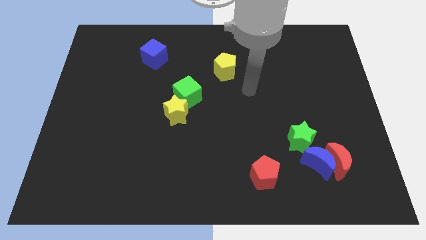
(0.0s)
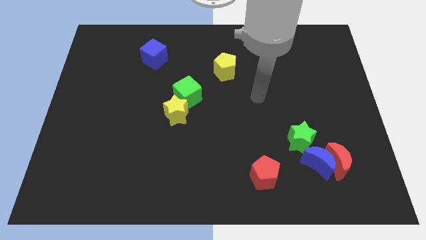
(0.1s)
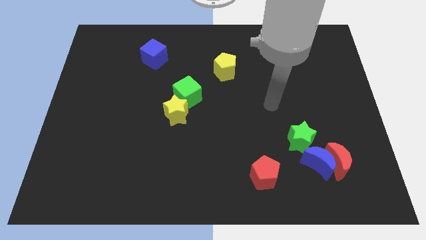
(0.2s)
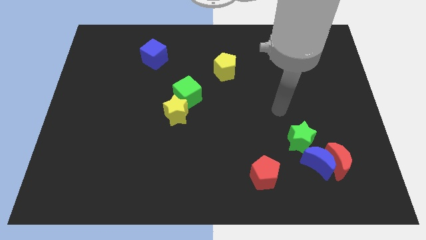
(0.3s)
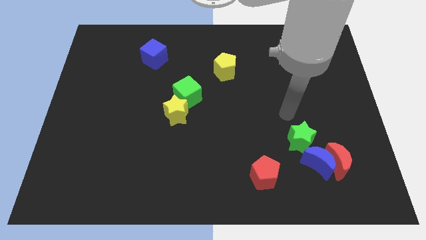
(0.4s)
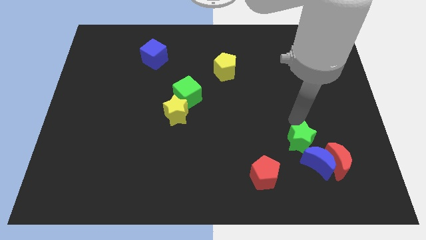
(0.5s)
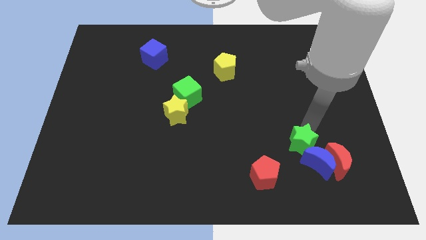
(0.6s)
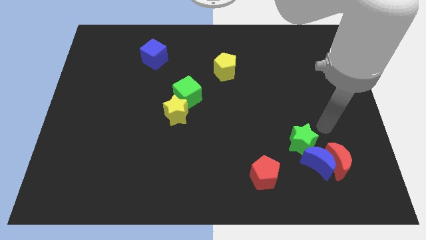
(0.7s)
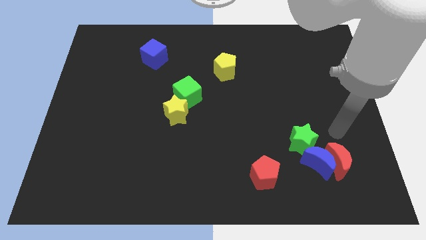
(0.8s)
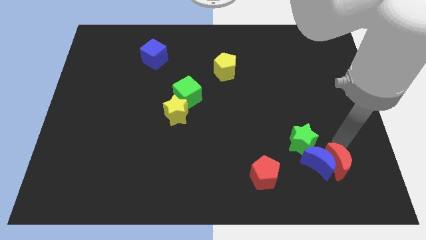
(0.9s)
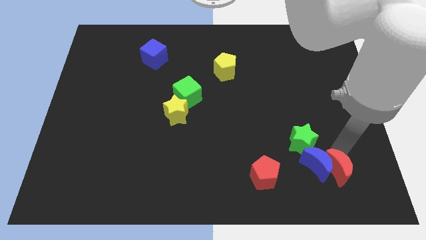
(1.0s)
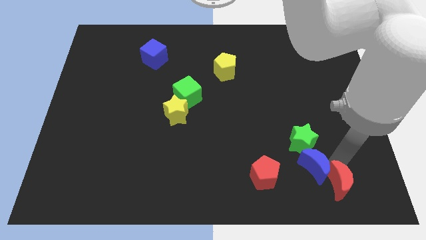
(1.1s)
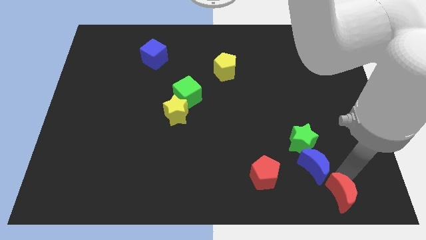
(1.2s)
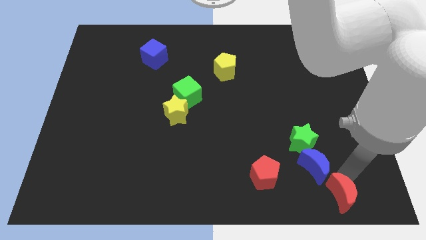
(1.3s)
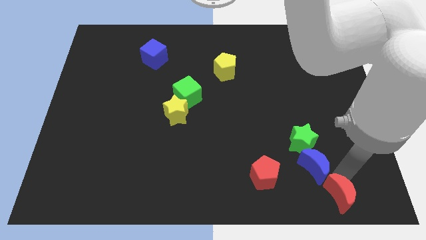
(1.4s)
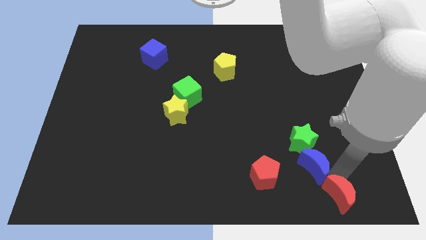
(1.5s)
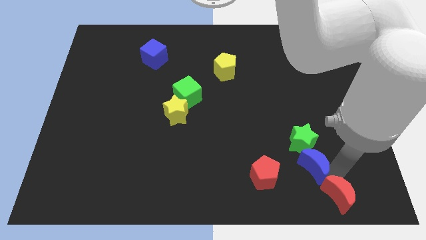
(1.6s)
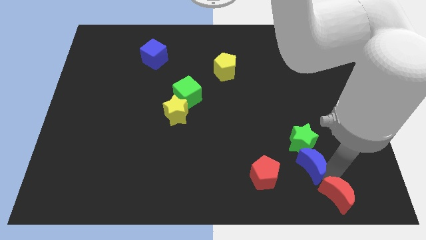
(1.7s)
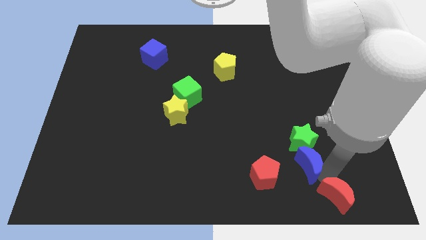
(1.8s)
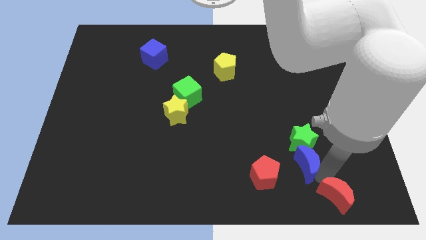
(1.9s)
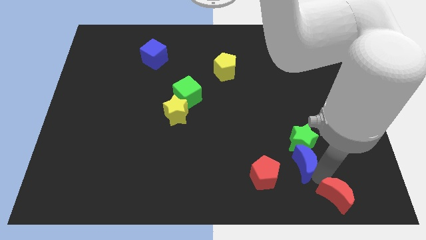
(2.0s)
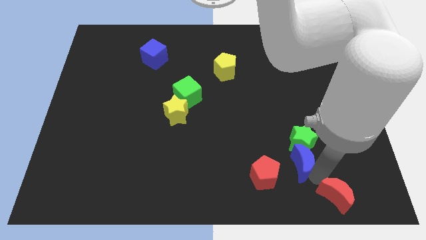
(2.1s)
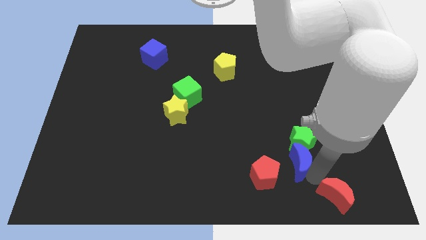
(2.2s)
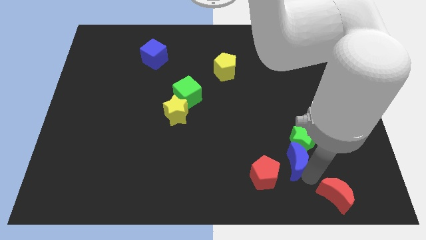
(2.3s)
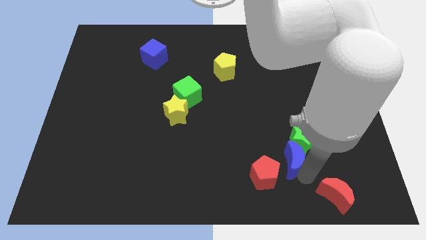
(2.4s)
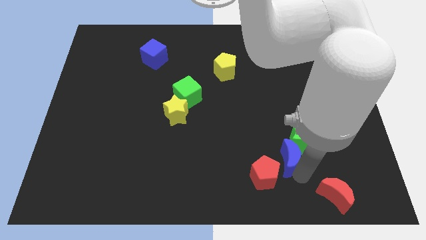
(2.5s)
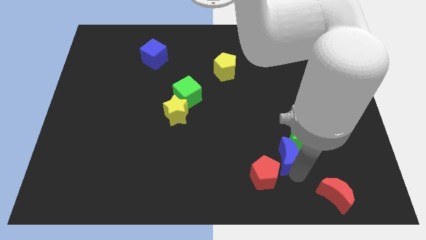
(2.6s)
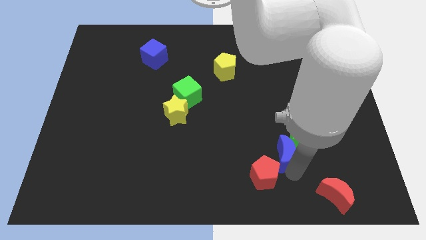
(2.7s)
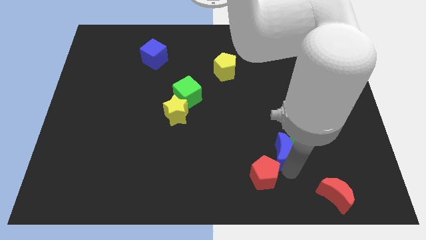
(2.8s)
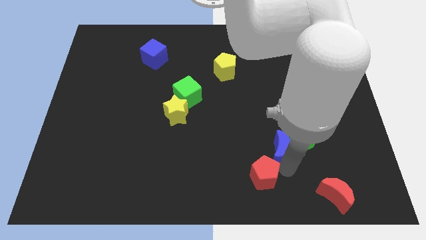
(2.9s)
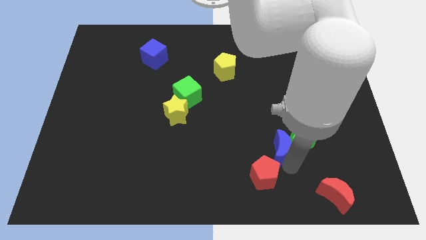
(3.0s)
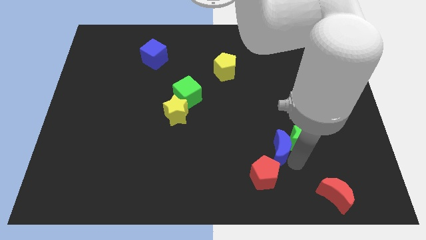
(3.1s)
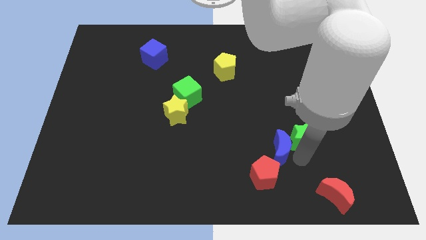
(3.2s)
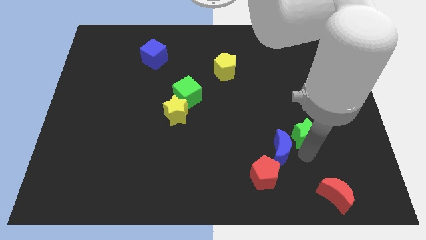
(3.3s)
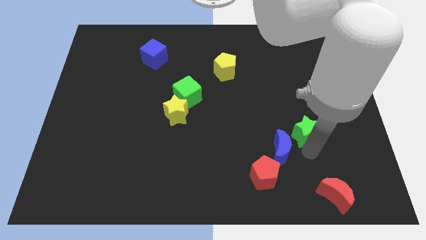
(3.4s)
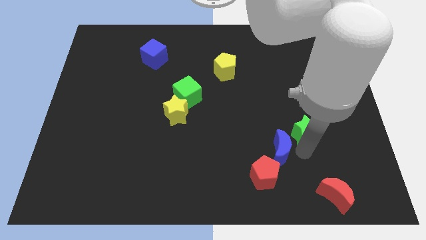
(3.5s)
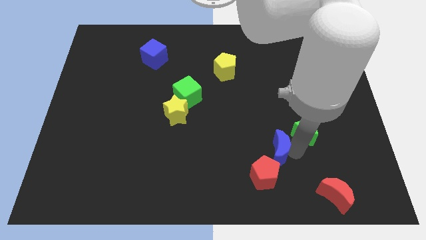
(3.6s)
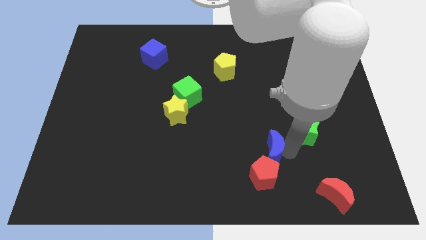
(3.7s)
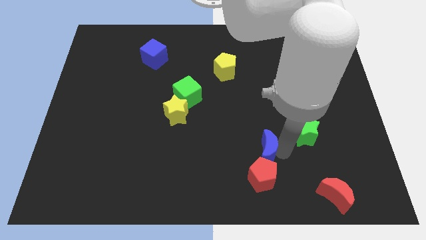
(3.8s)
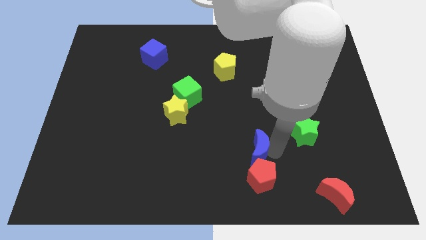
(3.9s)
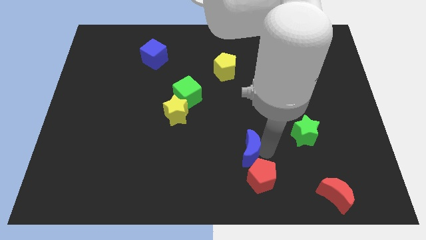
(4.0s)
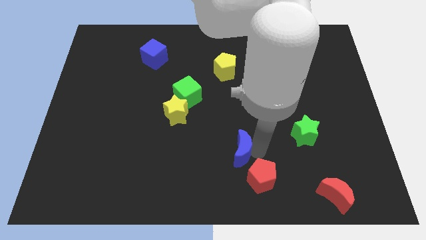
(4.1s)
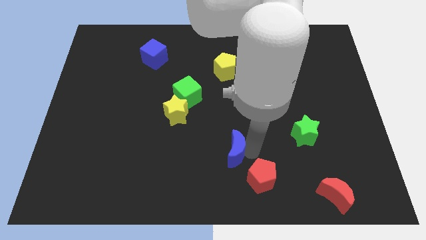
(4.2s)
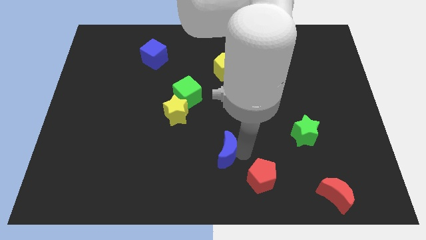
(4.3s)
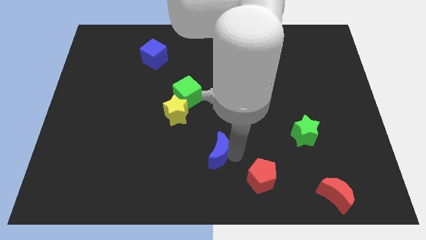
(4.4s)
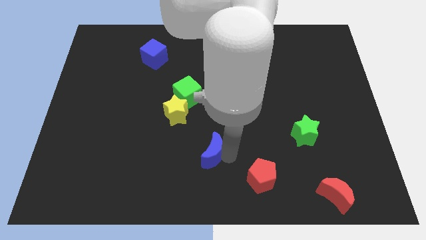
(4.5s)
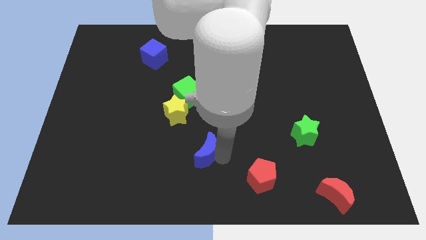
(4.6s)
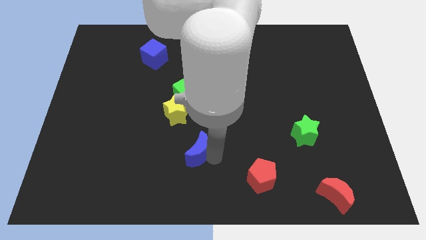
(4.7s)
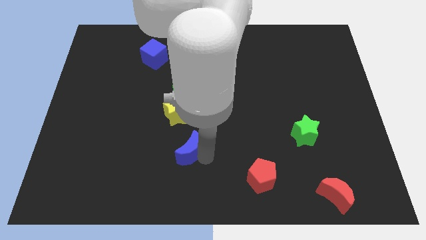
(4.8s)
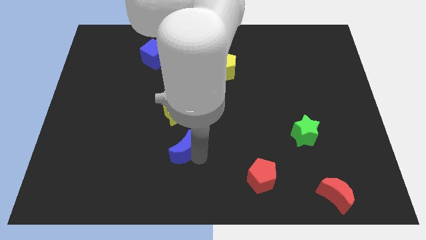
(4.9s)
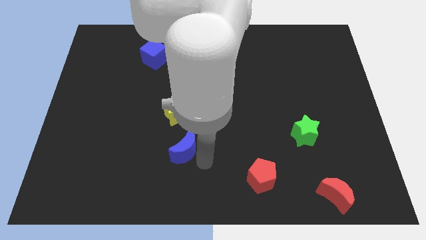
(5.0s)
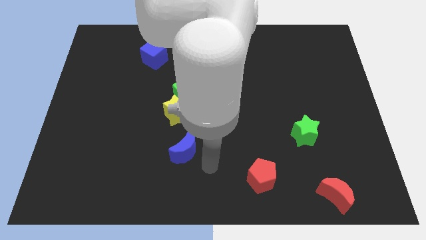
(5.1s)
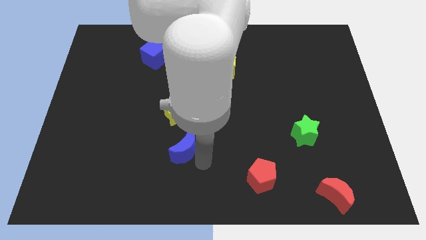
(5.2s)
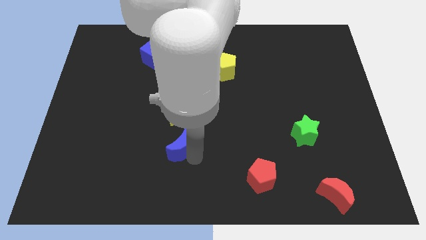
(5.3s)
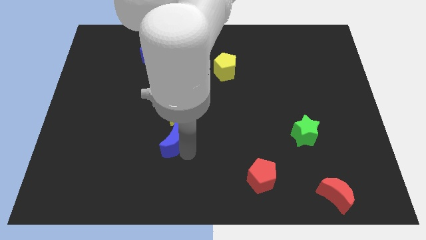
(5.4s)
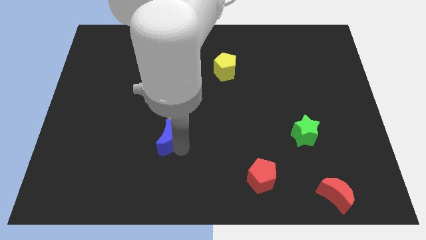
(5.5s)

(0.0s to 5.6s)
slide the blue moon to the bottom left of the yellow star

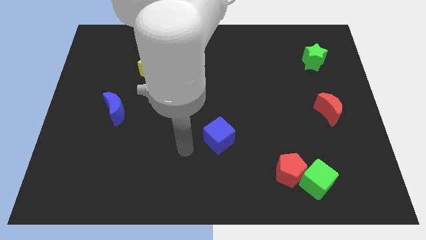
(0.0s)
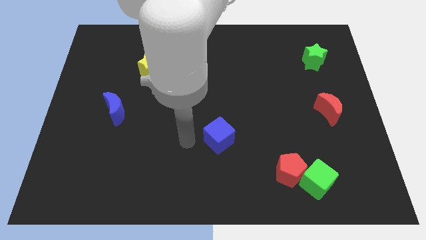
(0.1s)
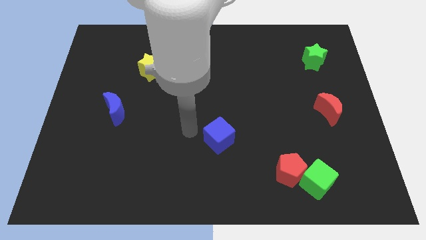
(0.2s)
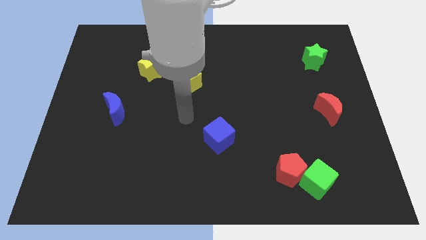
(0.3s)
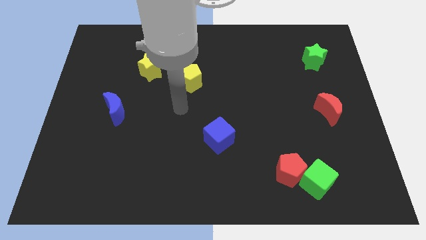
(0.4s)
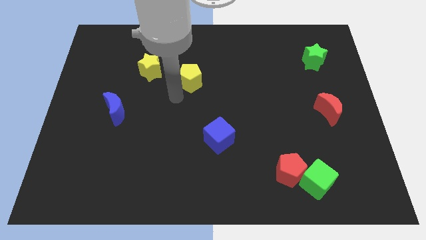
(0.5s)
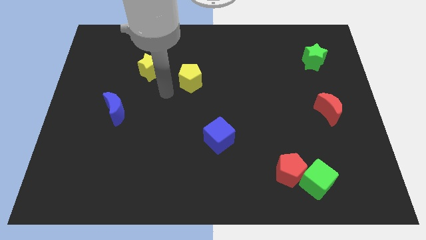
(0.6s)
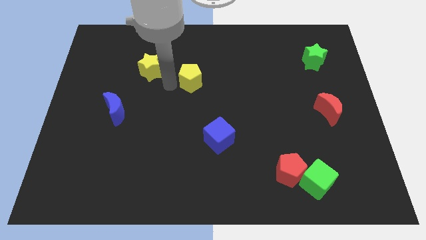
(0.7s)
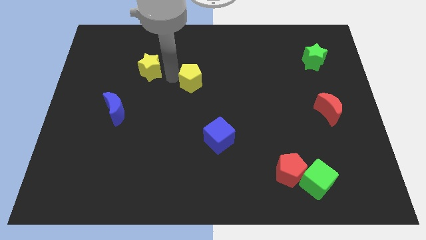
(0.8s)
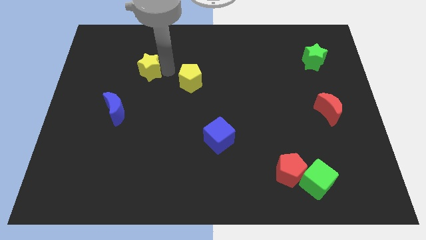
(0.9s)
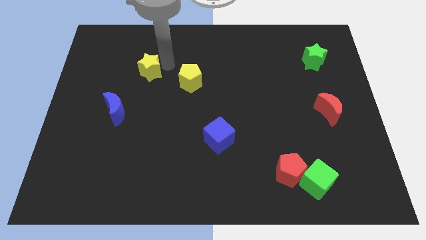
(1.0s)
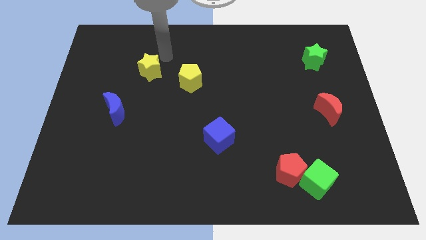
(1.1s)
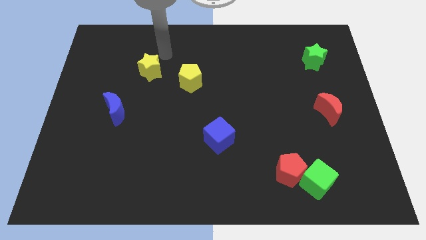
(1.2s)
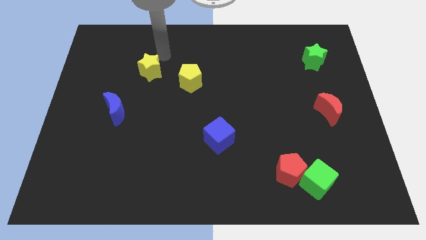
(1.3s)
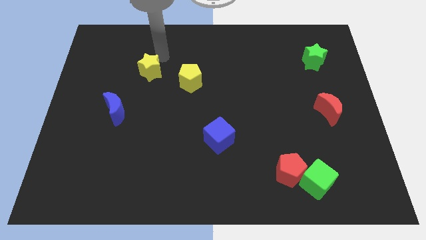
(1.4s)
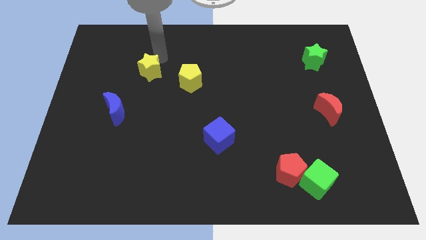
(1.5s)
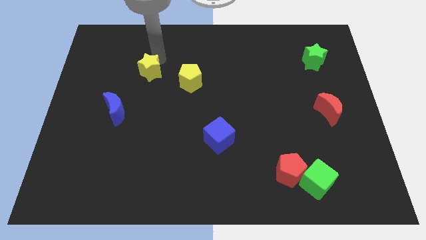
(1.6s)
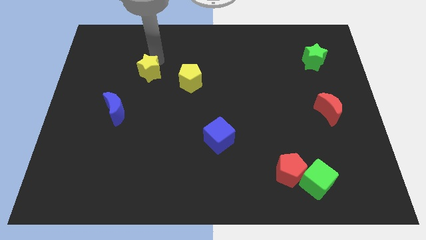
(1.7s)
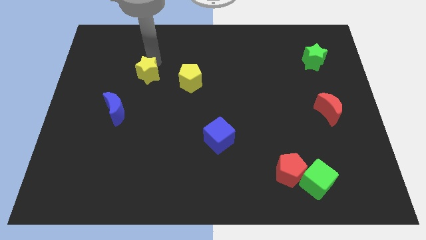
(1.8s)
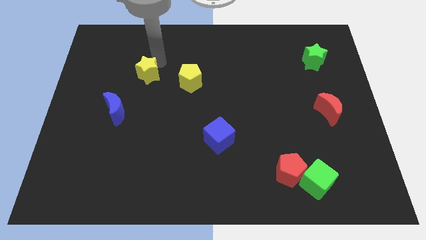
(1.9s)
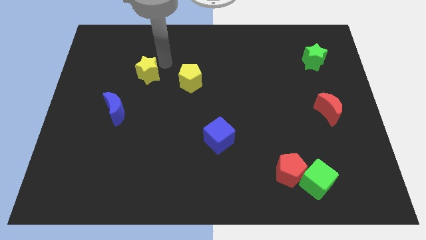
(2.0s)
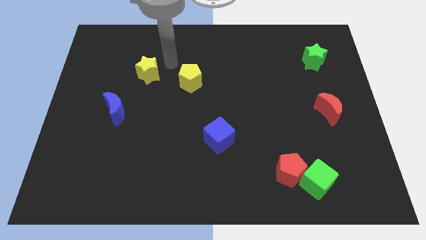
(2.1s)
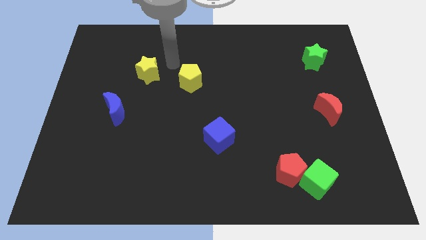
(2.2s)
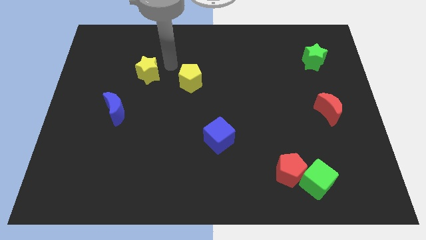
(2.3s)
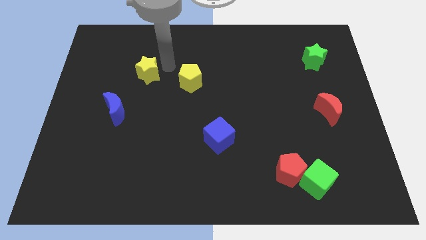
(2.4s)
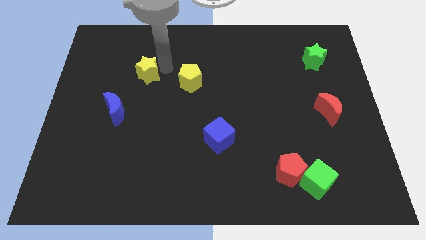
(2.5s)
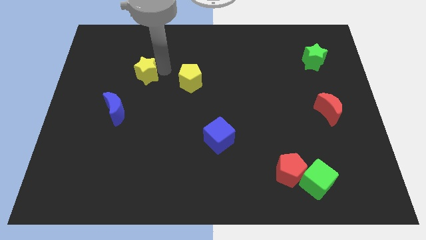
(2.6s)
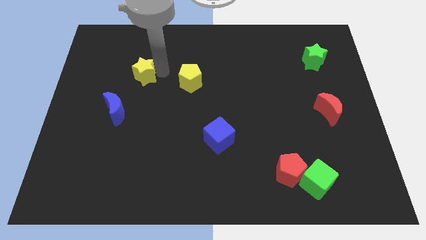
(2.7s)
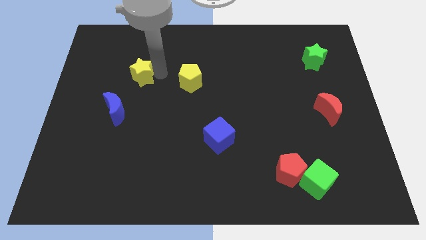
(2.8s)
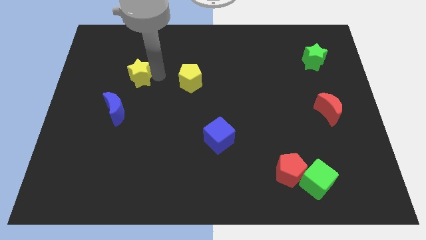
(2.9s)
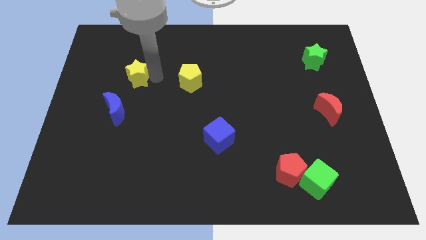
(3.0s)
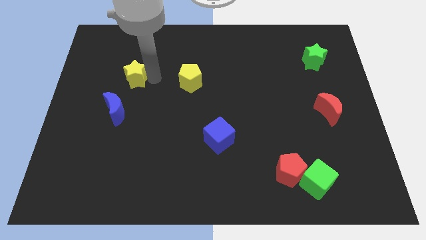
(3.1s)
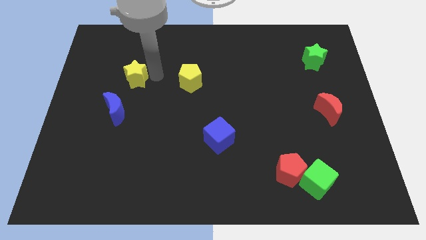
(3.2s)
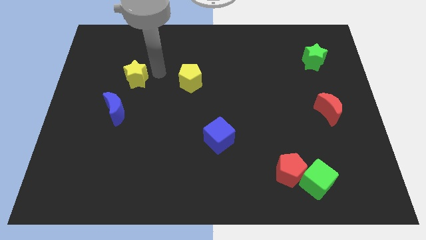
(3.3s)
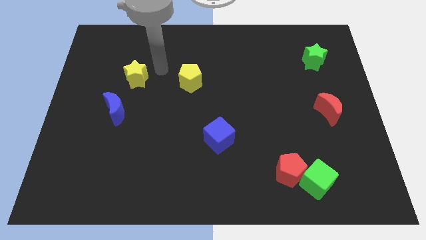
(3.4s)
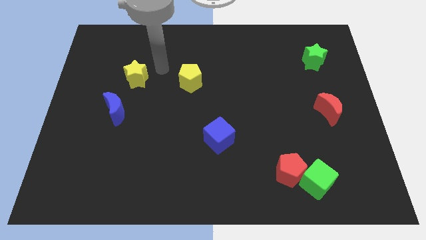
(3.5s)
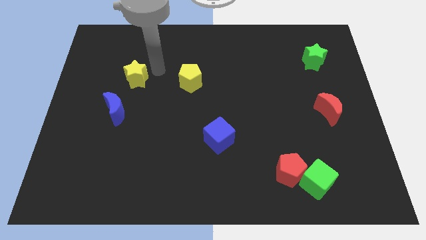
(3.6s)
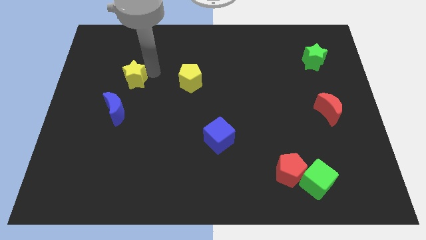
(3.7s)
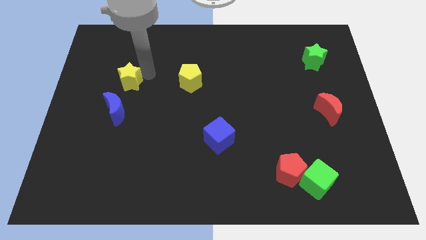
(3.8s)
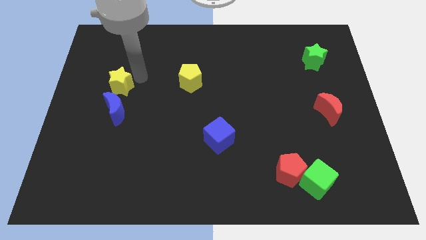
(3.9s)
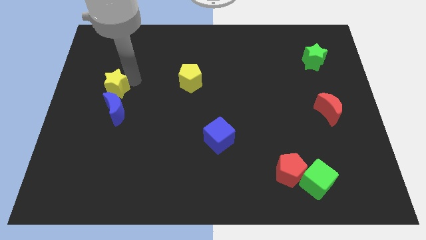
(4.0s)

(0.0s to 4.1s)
move the yellow star diagonally up and to the left of the blue moon
